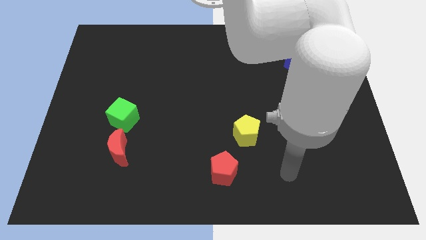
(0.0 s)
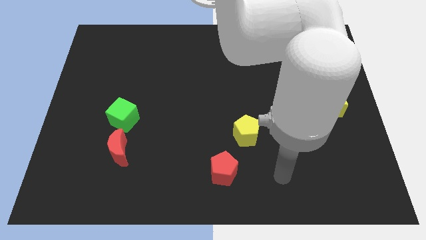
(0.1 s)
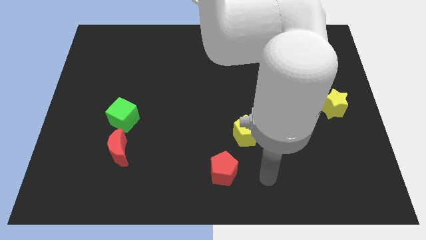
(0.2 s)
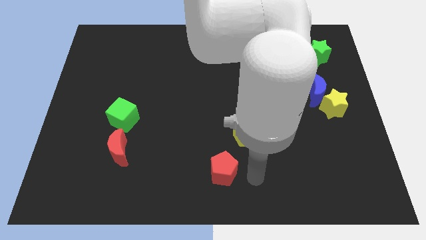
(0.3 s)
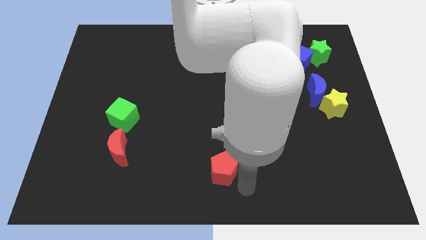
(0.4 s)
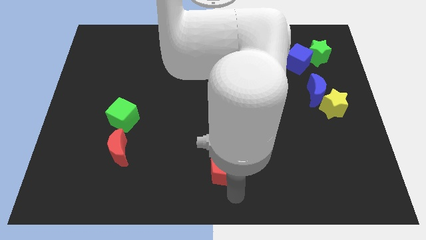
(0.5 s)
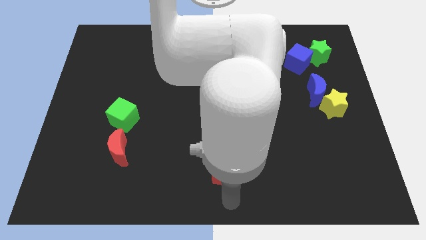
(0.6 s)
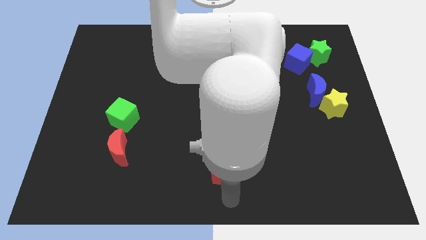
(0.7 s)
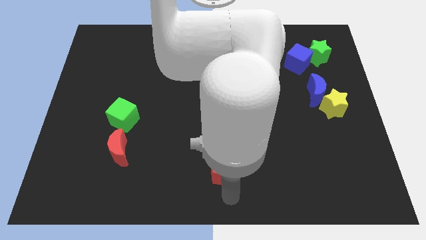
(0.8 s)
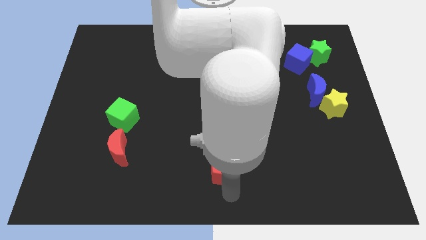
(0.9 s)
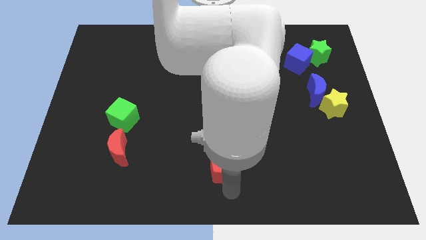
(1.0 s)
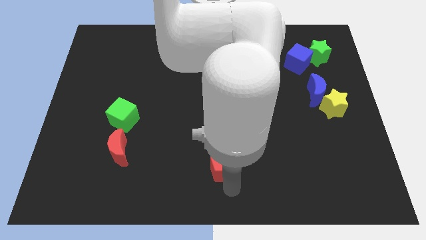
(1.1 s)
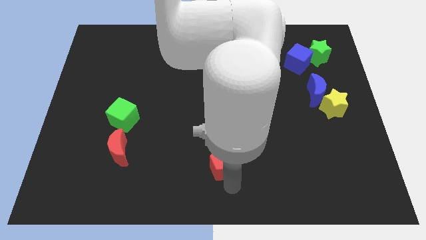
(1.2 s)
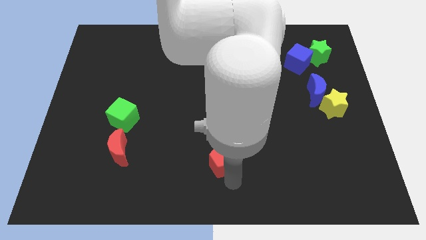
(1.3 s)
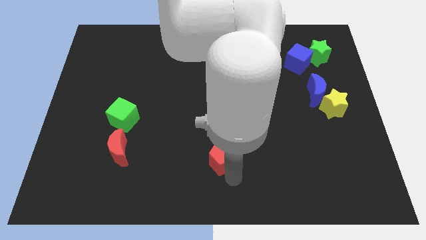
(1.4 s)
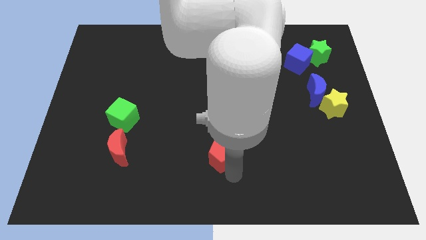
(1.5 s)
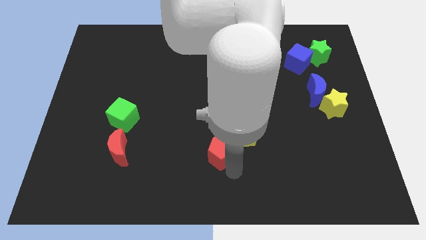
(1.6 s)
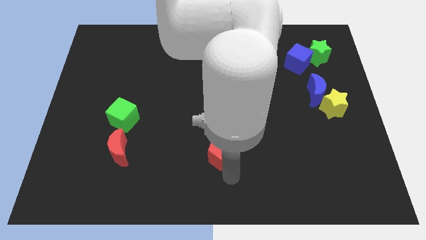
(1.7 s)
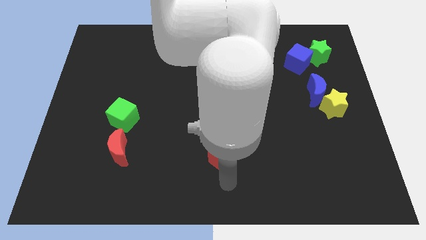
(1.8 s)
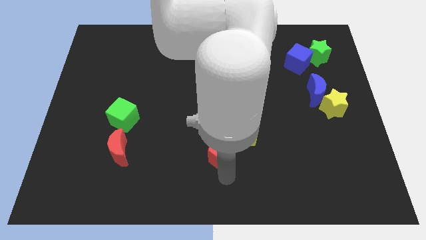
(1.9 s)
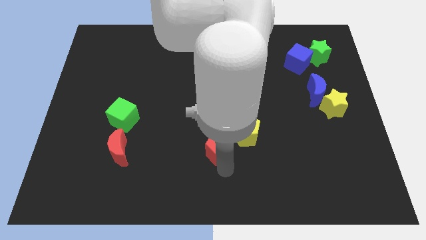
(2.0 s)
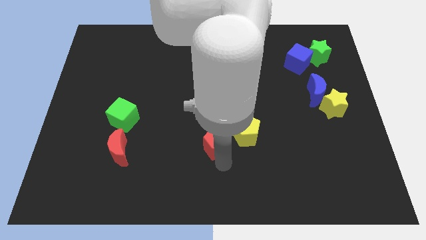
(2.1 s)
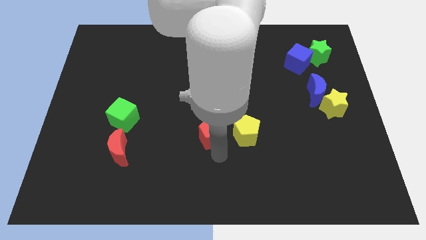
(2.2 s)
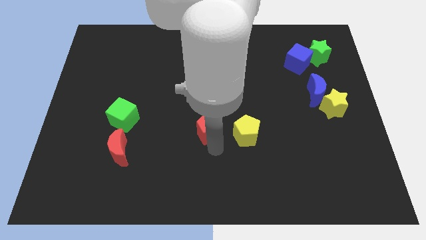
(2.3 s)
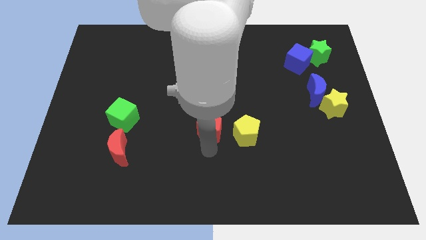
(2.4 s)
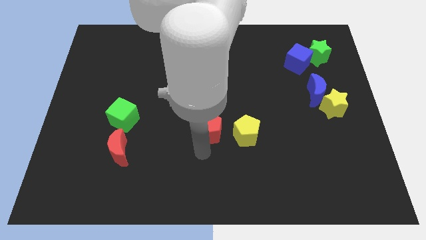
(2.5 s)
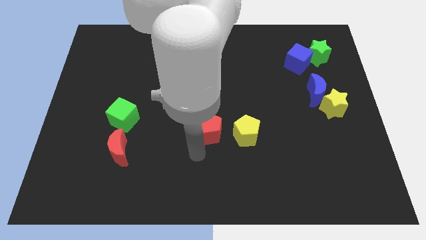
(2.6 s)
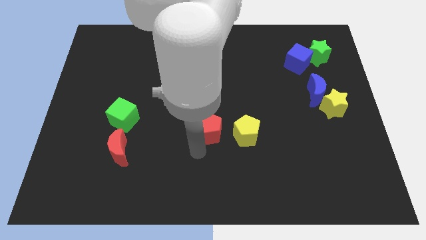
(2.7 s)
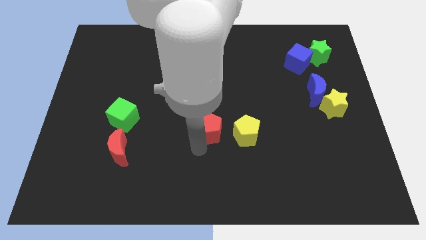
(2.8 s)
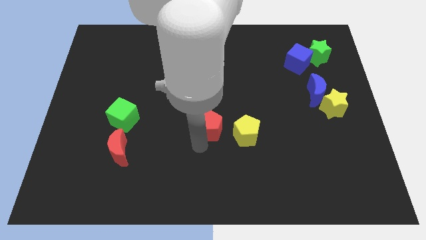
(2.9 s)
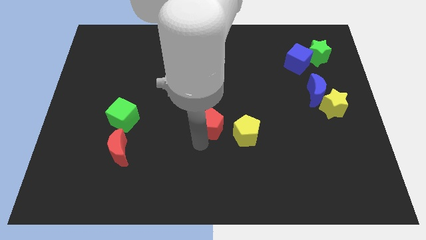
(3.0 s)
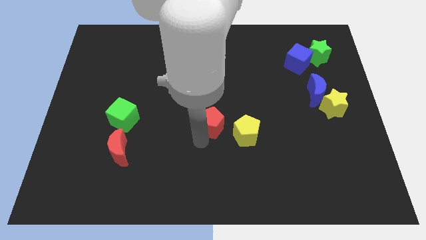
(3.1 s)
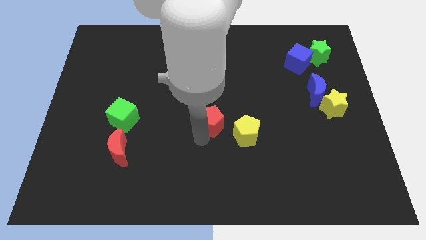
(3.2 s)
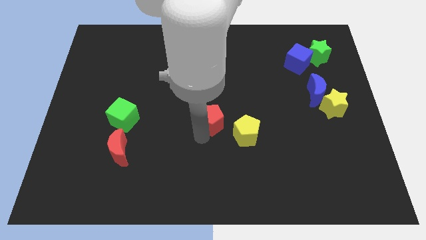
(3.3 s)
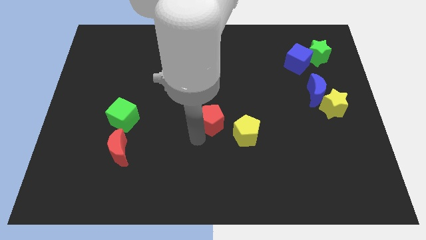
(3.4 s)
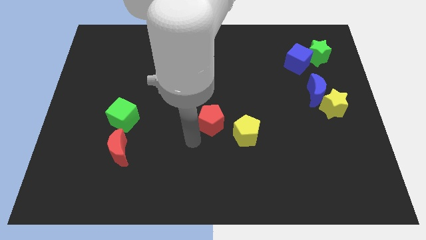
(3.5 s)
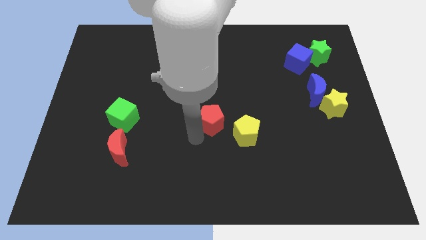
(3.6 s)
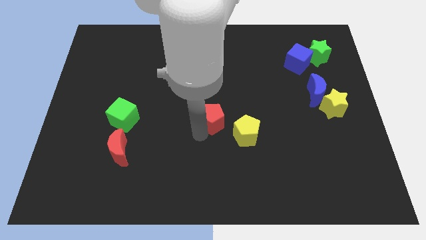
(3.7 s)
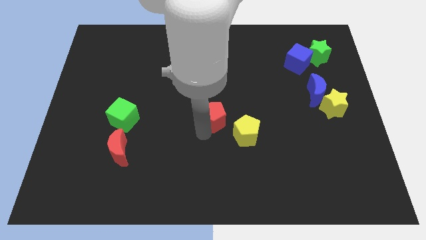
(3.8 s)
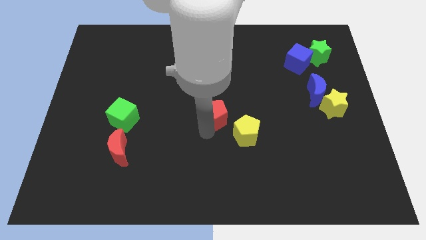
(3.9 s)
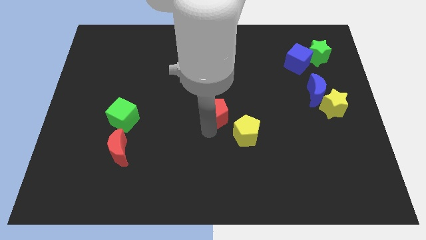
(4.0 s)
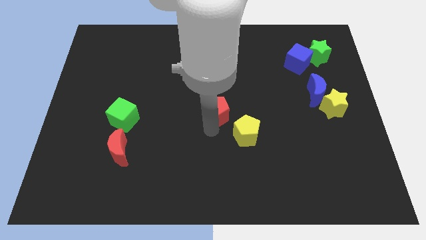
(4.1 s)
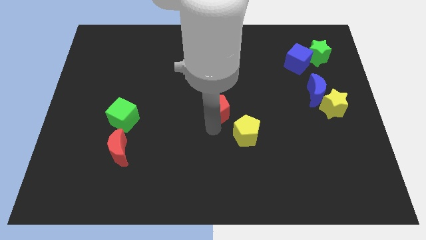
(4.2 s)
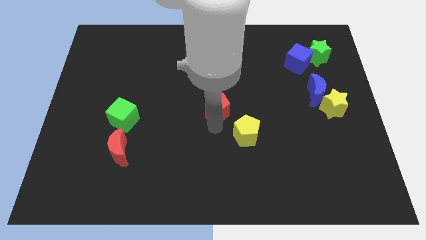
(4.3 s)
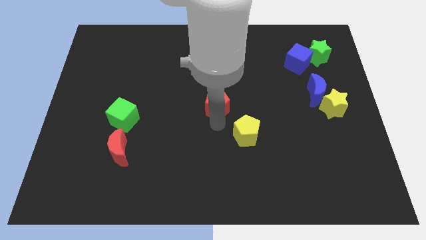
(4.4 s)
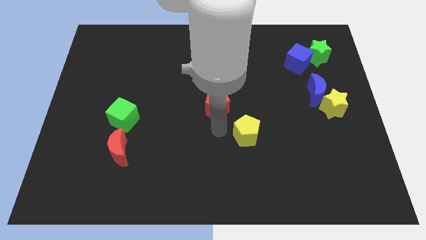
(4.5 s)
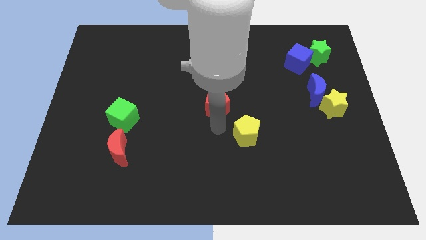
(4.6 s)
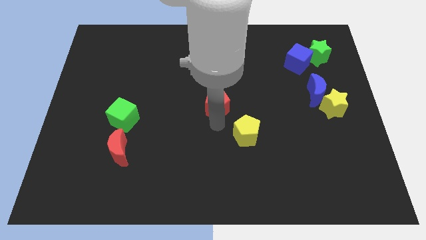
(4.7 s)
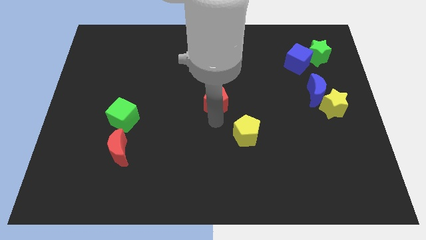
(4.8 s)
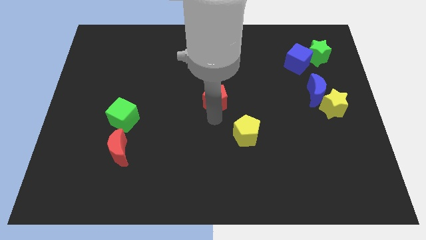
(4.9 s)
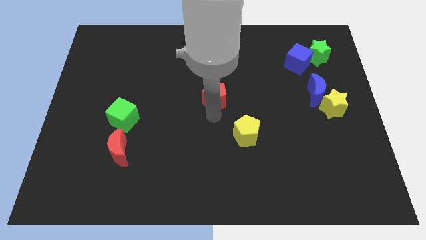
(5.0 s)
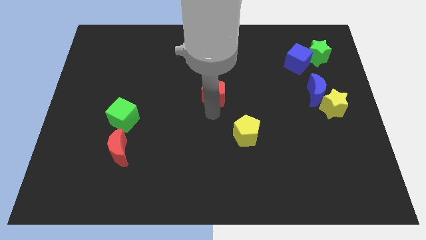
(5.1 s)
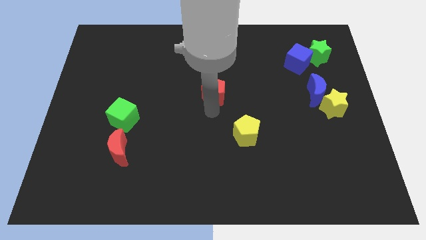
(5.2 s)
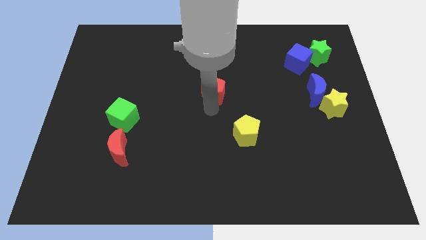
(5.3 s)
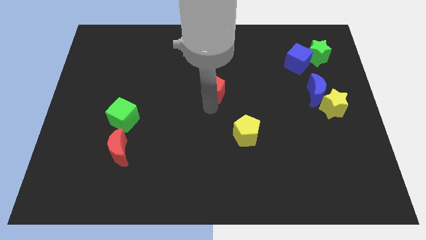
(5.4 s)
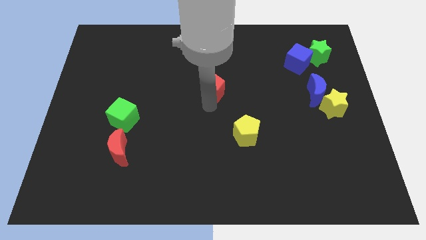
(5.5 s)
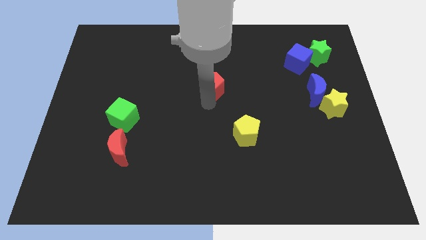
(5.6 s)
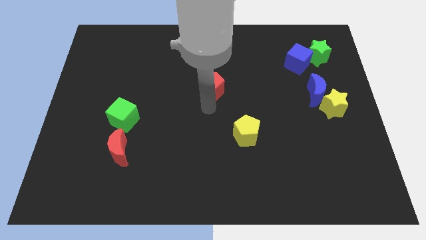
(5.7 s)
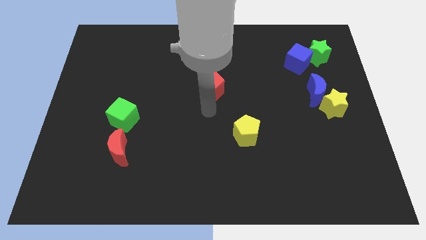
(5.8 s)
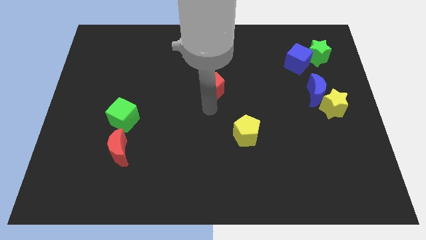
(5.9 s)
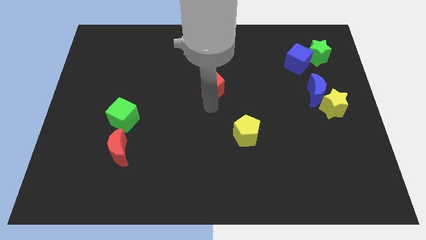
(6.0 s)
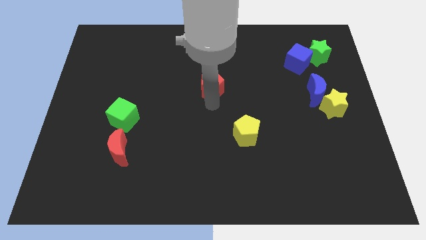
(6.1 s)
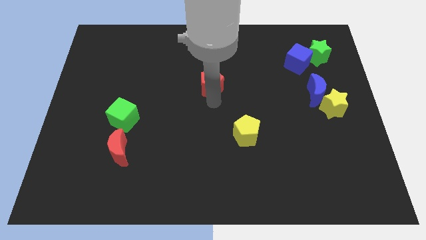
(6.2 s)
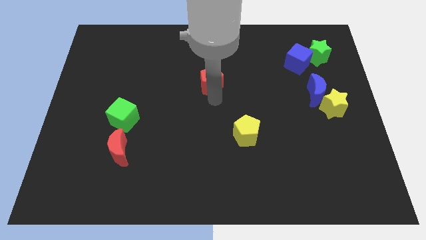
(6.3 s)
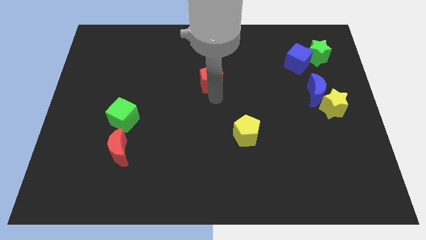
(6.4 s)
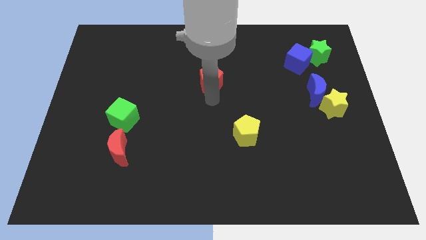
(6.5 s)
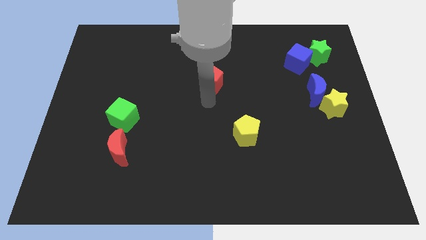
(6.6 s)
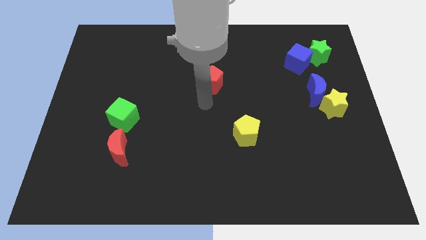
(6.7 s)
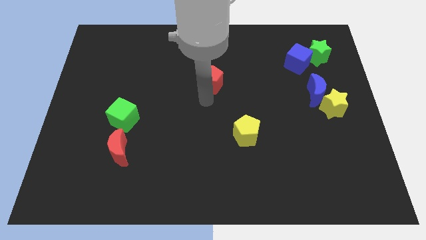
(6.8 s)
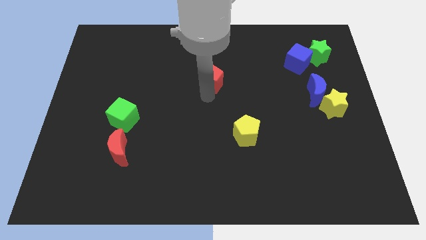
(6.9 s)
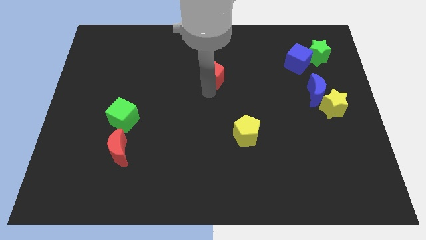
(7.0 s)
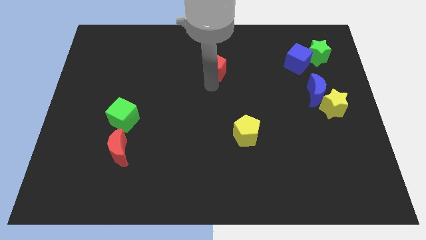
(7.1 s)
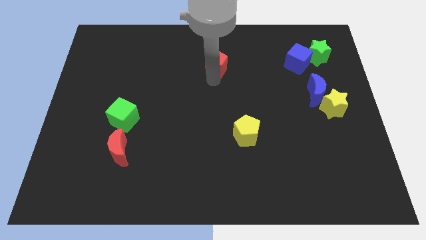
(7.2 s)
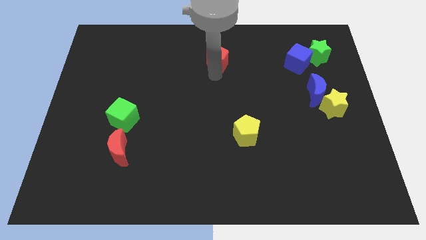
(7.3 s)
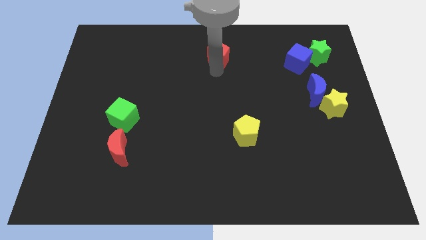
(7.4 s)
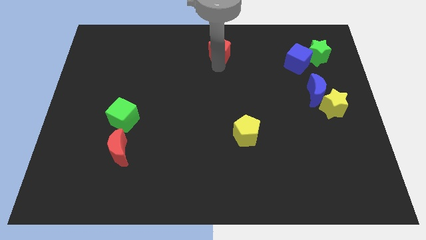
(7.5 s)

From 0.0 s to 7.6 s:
move the red pentagon to the top
